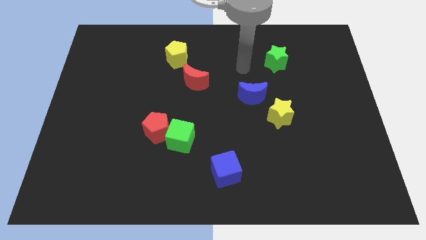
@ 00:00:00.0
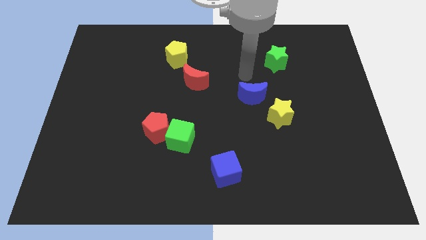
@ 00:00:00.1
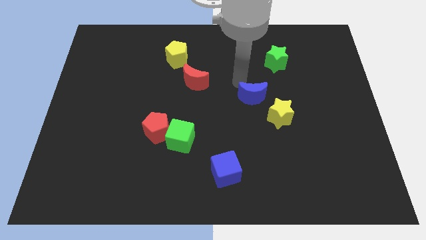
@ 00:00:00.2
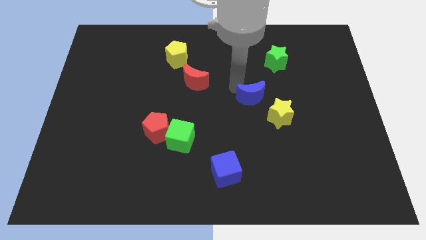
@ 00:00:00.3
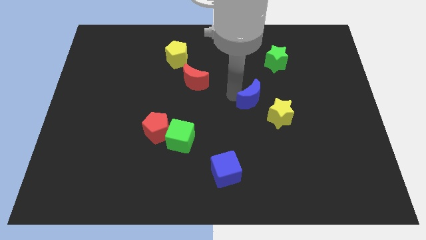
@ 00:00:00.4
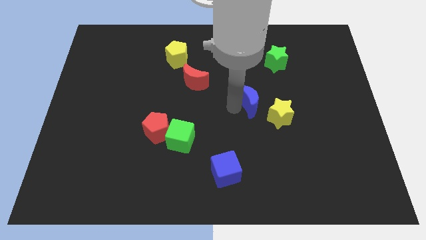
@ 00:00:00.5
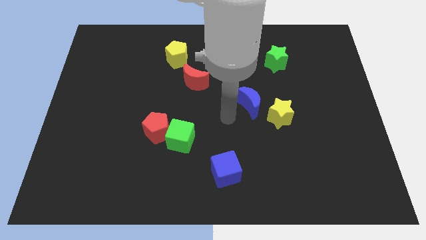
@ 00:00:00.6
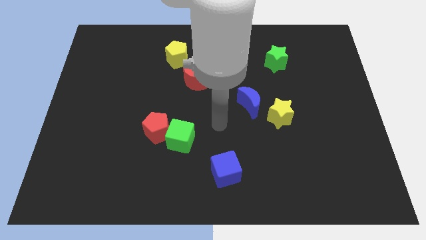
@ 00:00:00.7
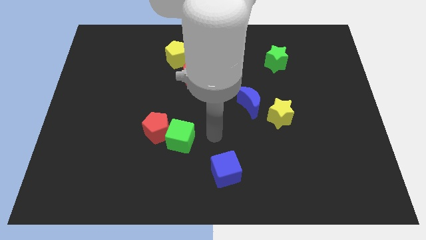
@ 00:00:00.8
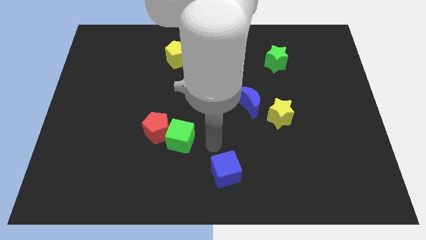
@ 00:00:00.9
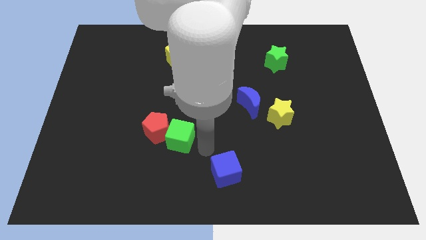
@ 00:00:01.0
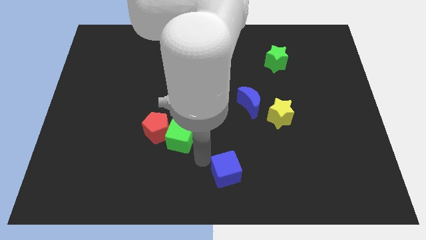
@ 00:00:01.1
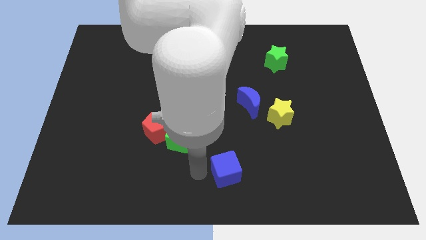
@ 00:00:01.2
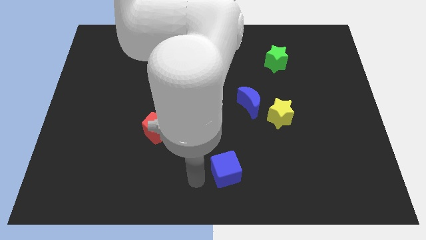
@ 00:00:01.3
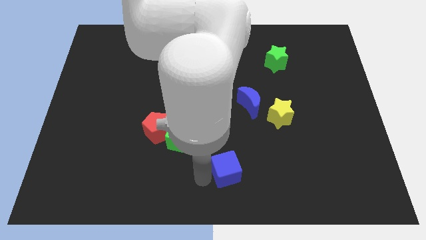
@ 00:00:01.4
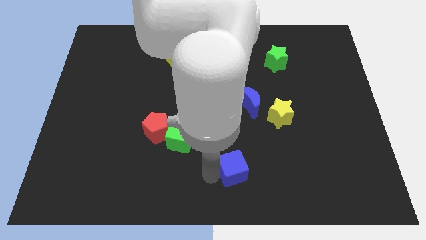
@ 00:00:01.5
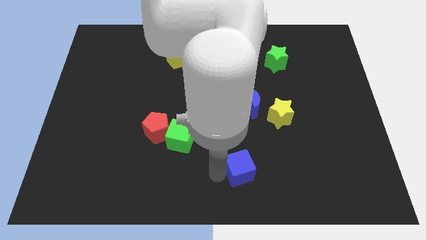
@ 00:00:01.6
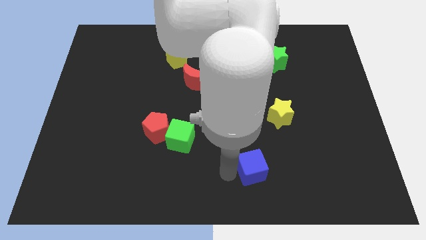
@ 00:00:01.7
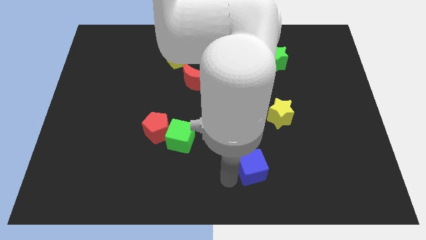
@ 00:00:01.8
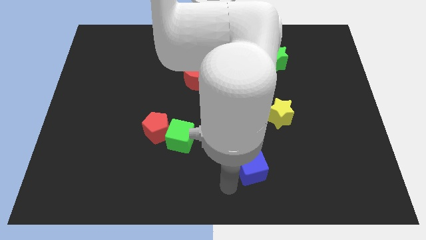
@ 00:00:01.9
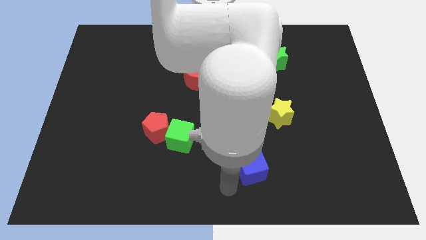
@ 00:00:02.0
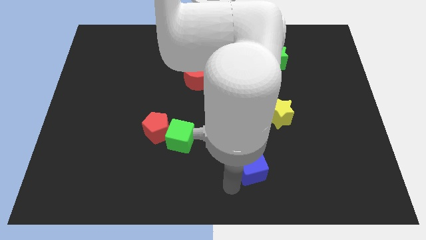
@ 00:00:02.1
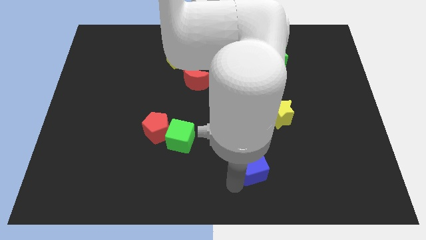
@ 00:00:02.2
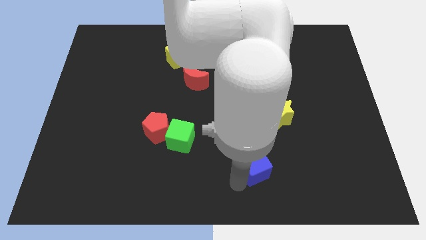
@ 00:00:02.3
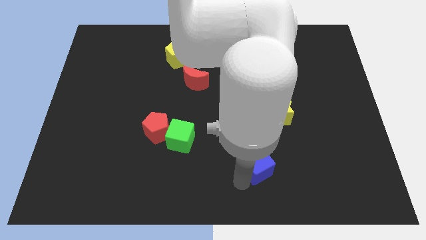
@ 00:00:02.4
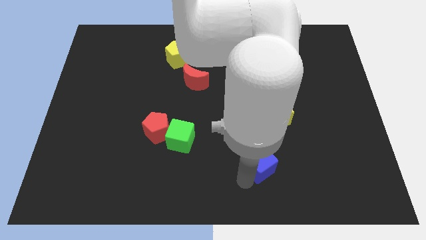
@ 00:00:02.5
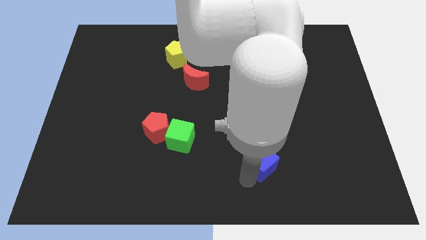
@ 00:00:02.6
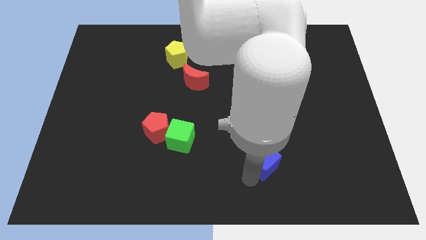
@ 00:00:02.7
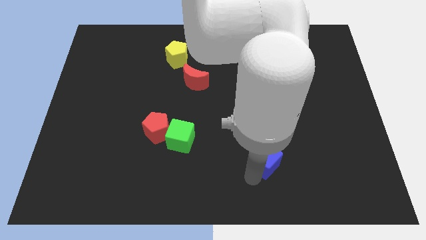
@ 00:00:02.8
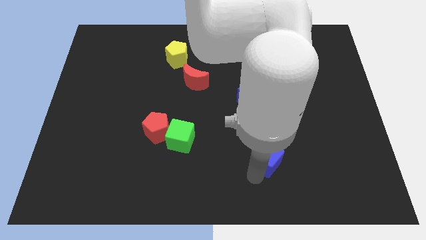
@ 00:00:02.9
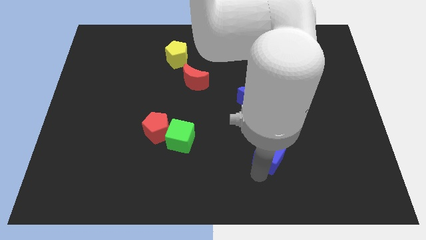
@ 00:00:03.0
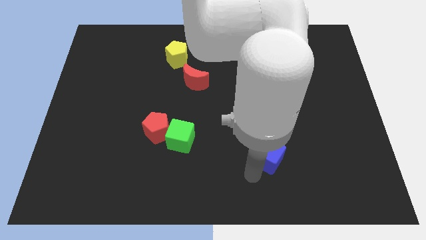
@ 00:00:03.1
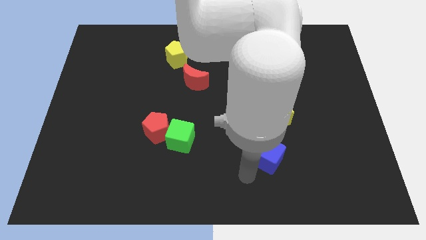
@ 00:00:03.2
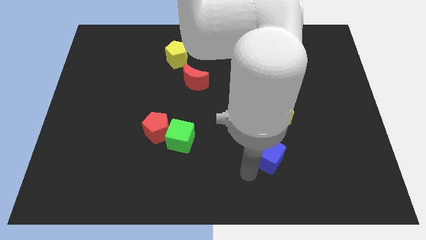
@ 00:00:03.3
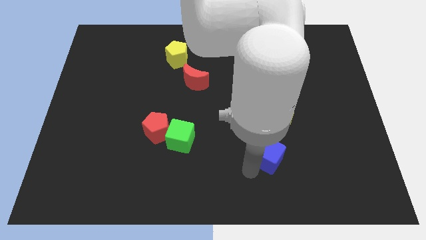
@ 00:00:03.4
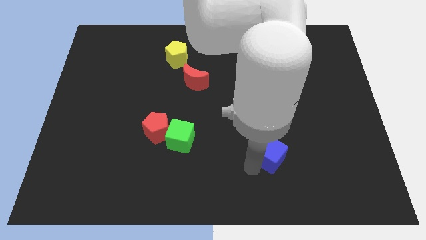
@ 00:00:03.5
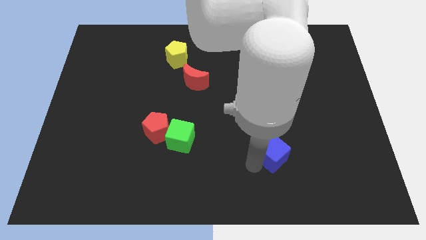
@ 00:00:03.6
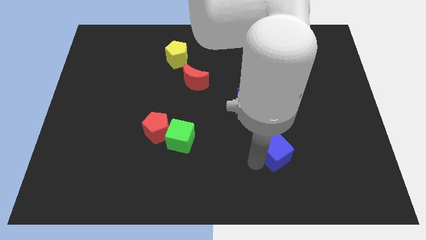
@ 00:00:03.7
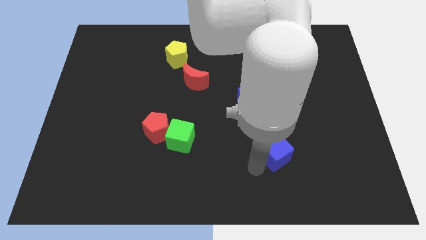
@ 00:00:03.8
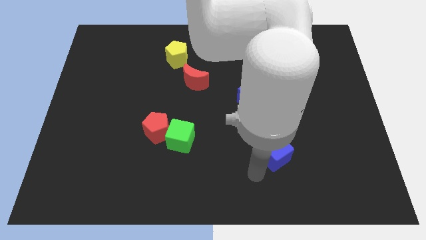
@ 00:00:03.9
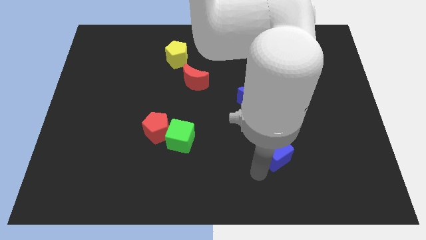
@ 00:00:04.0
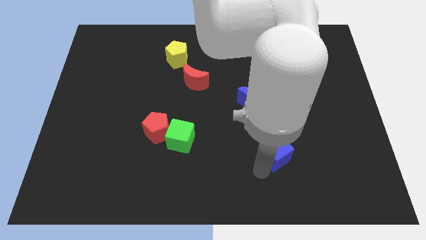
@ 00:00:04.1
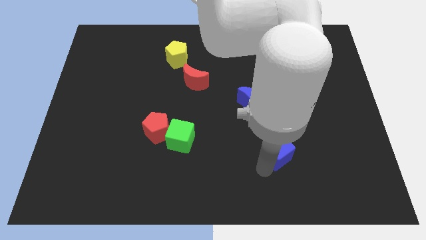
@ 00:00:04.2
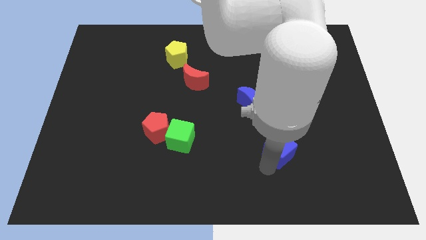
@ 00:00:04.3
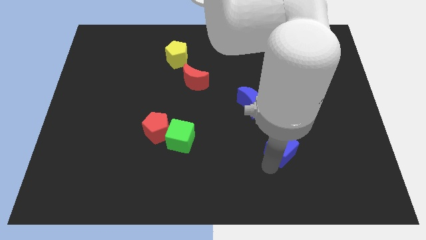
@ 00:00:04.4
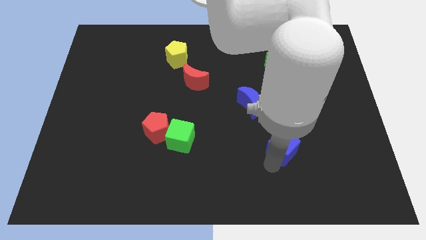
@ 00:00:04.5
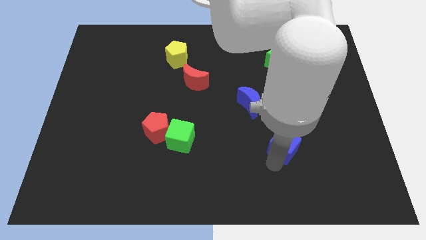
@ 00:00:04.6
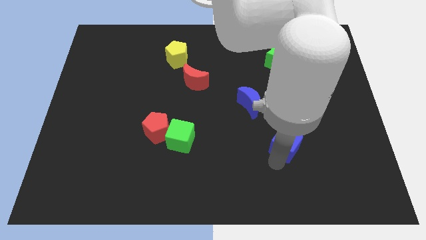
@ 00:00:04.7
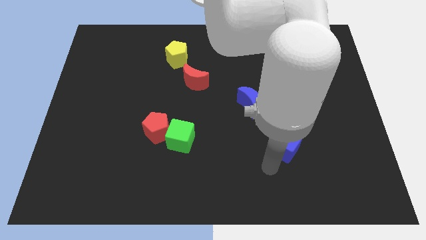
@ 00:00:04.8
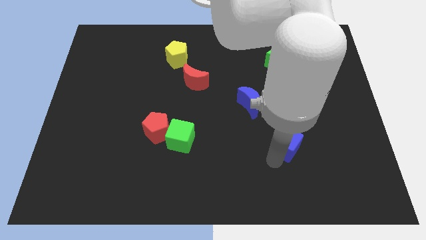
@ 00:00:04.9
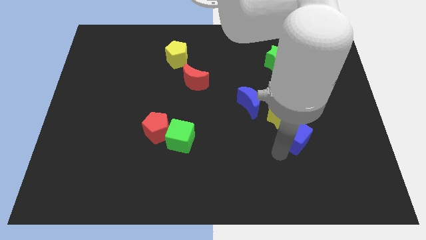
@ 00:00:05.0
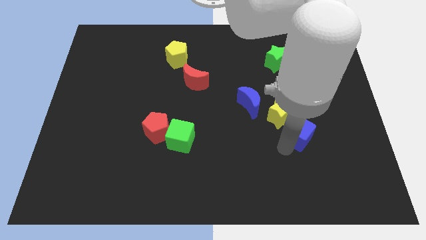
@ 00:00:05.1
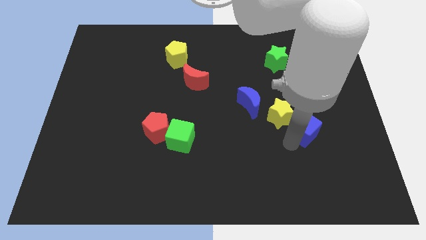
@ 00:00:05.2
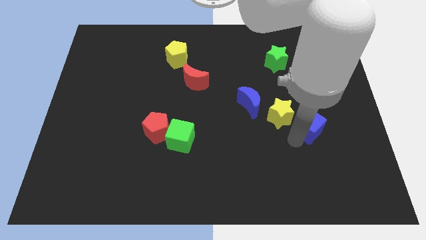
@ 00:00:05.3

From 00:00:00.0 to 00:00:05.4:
move the blue cube upwards and then to the right

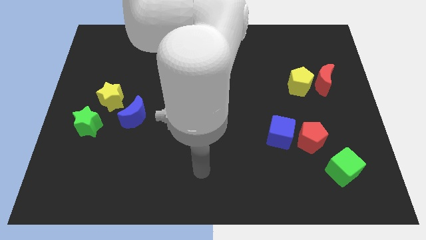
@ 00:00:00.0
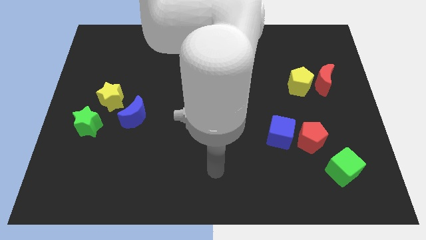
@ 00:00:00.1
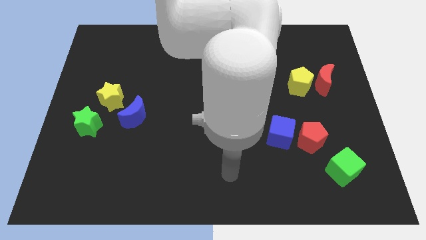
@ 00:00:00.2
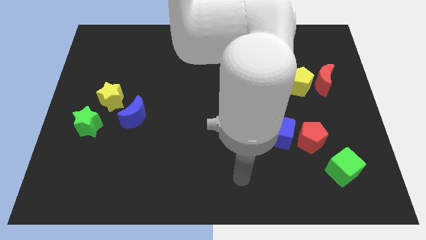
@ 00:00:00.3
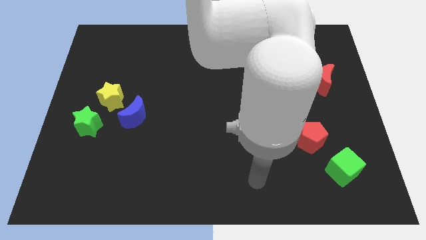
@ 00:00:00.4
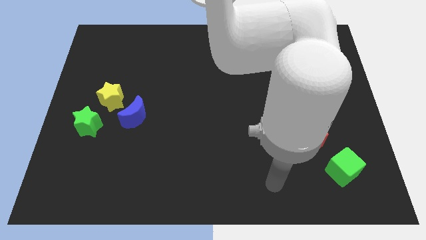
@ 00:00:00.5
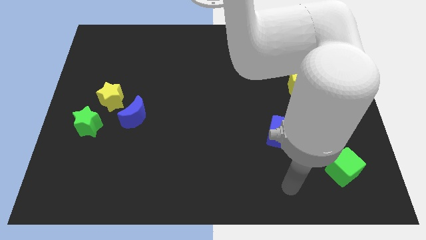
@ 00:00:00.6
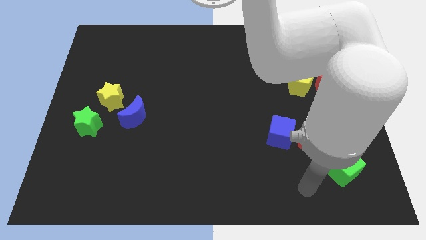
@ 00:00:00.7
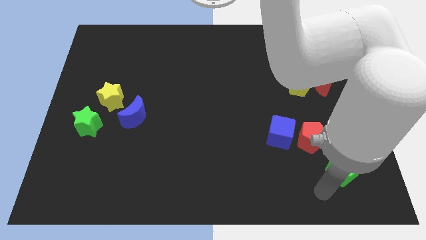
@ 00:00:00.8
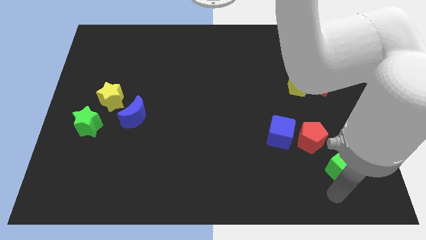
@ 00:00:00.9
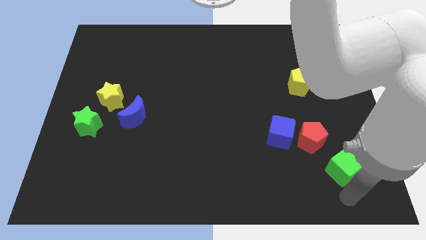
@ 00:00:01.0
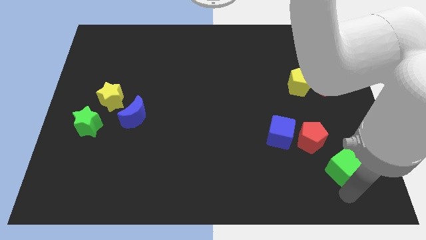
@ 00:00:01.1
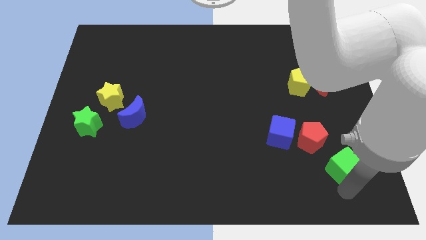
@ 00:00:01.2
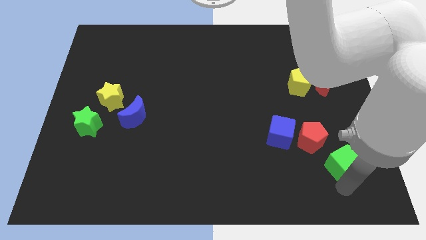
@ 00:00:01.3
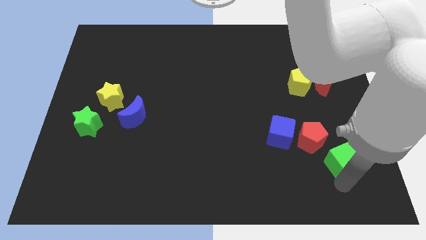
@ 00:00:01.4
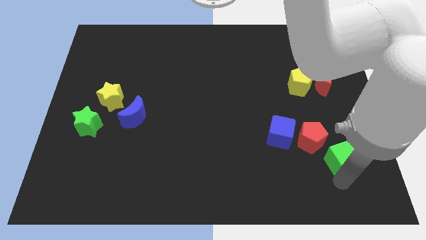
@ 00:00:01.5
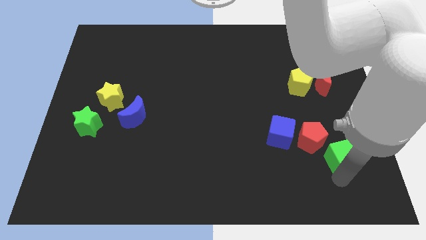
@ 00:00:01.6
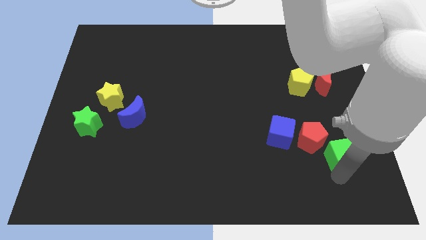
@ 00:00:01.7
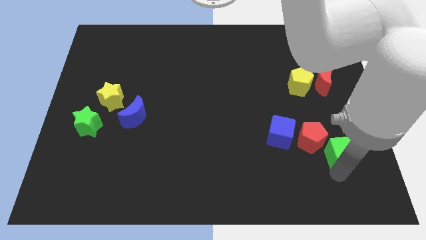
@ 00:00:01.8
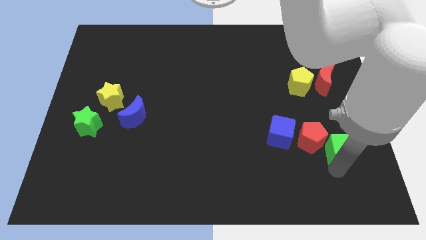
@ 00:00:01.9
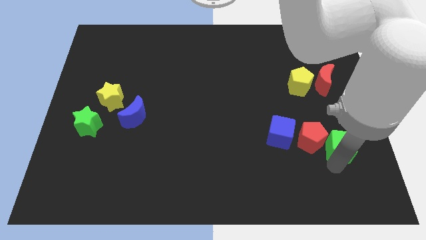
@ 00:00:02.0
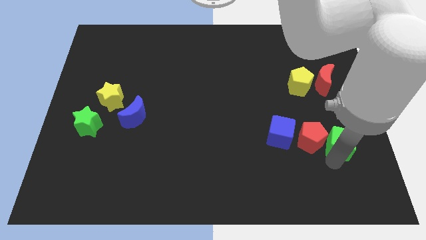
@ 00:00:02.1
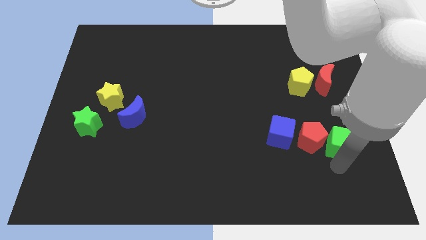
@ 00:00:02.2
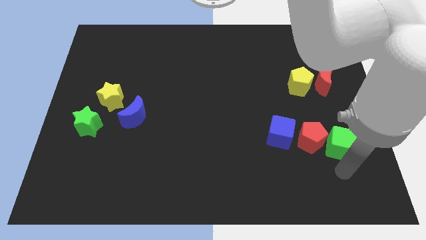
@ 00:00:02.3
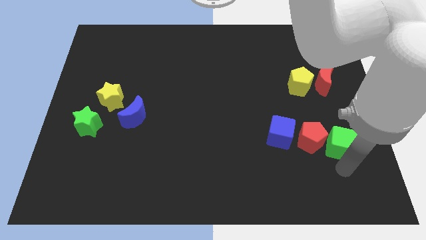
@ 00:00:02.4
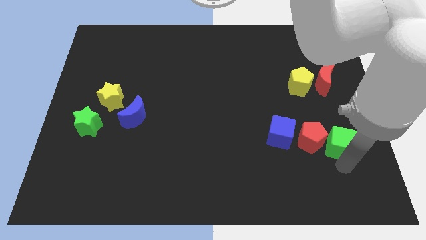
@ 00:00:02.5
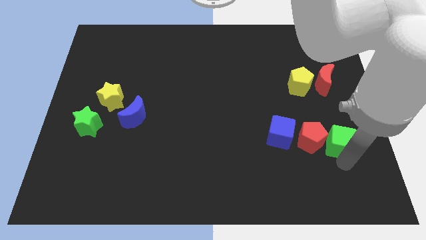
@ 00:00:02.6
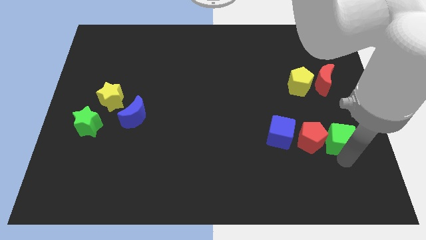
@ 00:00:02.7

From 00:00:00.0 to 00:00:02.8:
move the green cube upwards slightly
